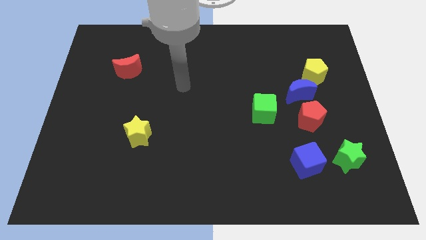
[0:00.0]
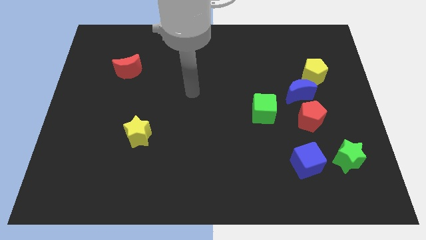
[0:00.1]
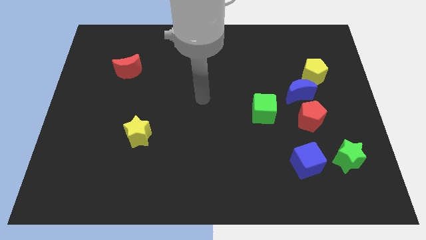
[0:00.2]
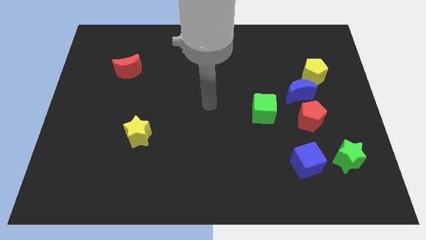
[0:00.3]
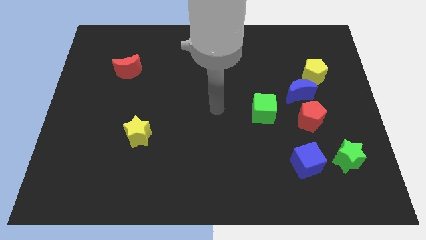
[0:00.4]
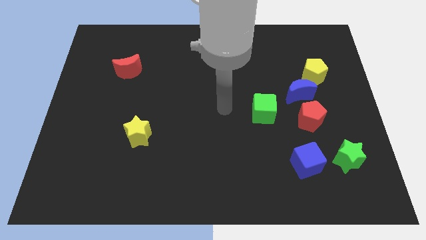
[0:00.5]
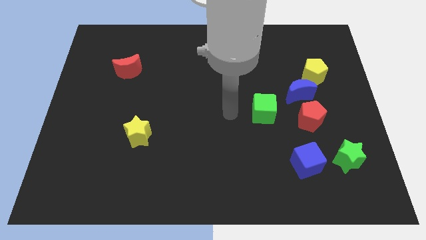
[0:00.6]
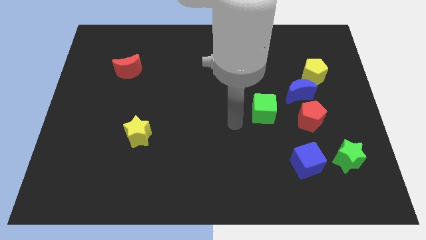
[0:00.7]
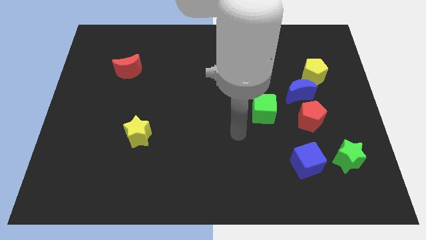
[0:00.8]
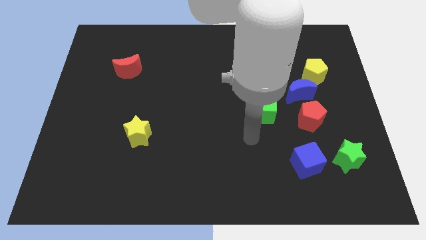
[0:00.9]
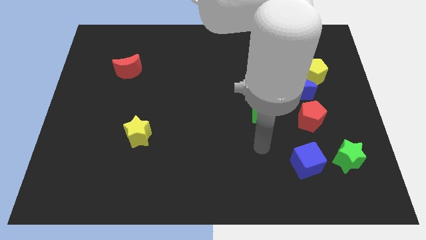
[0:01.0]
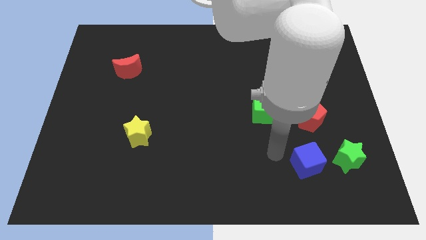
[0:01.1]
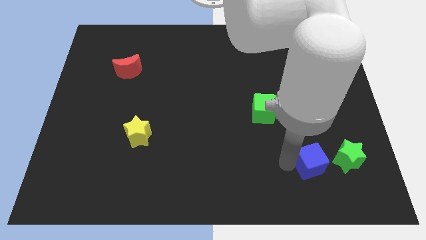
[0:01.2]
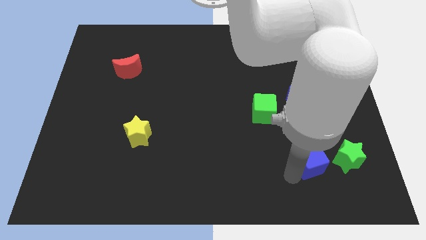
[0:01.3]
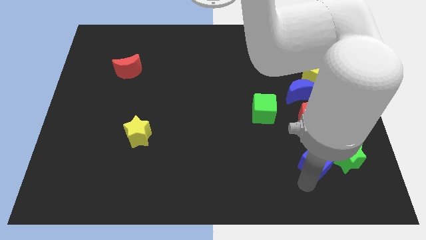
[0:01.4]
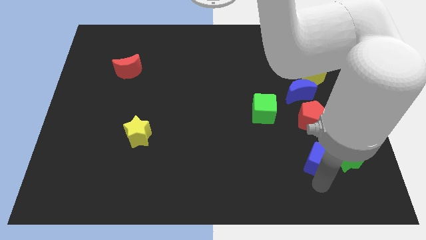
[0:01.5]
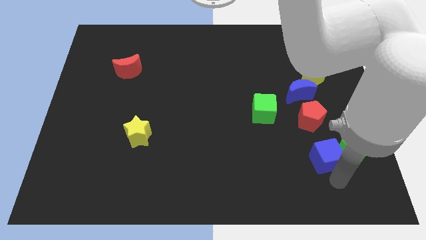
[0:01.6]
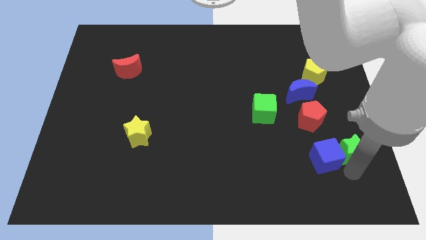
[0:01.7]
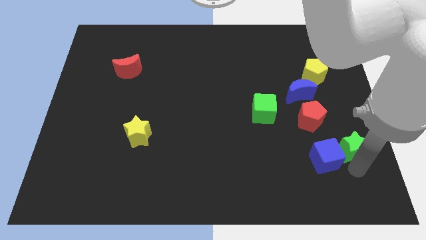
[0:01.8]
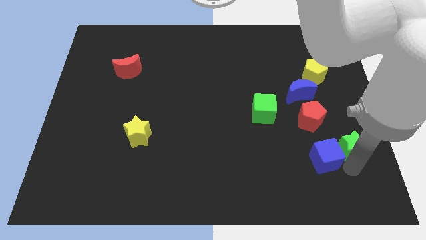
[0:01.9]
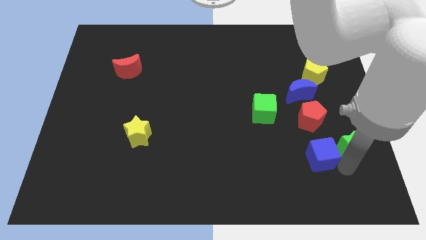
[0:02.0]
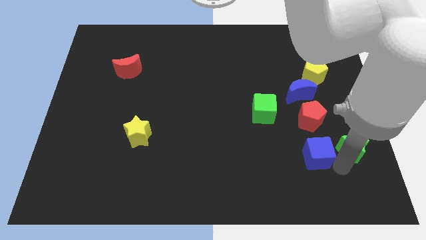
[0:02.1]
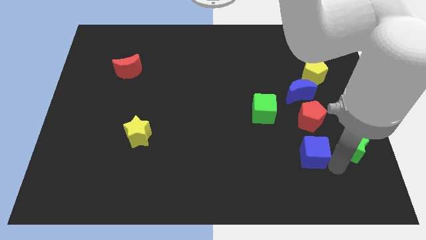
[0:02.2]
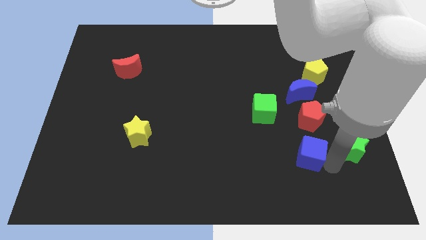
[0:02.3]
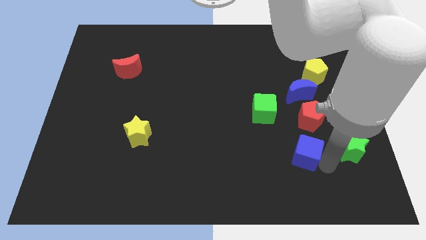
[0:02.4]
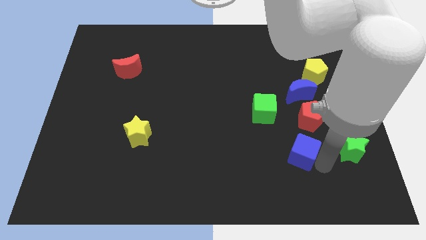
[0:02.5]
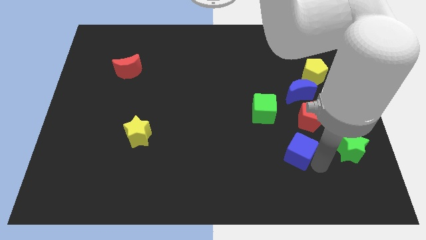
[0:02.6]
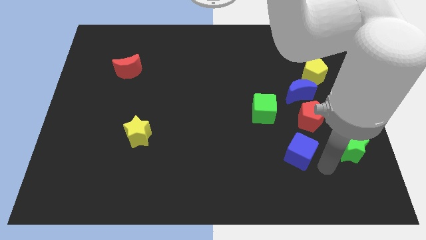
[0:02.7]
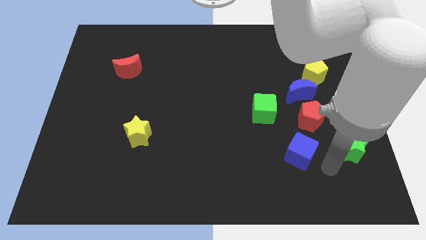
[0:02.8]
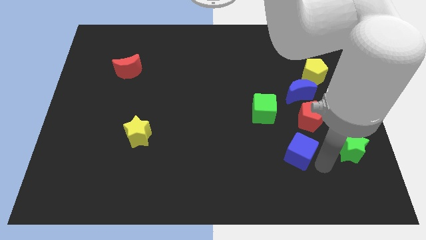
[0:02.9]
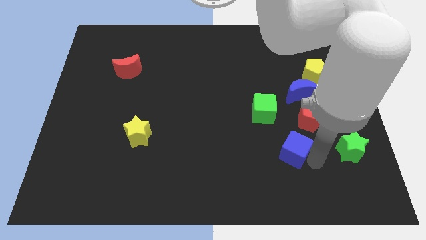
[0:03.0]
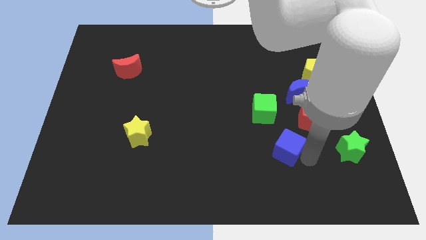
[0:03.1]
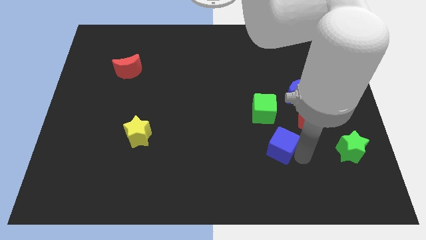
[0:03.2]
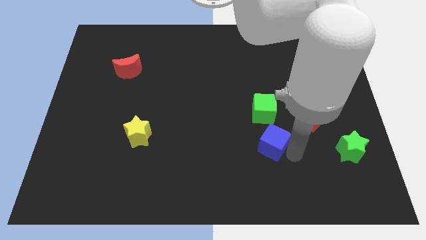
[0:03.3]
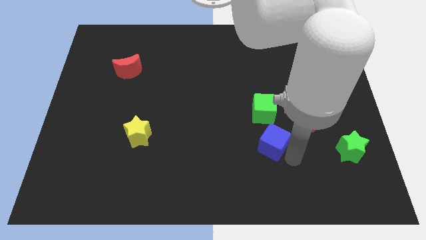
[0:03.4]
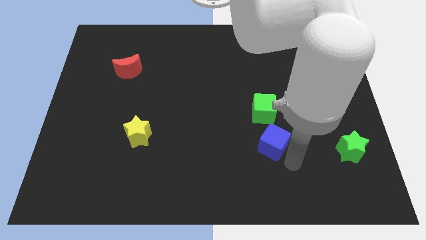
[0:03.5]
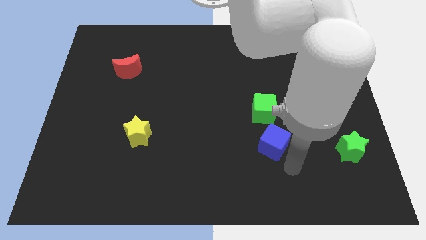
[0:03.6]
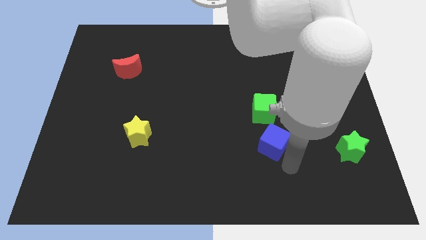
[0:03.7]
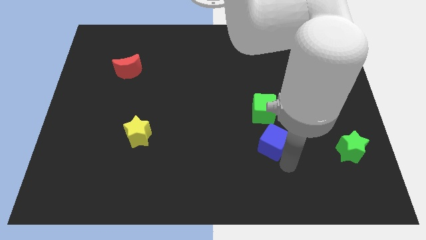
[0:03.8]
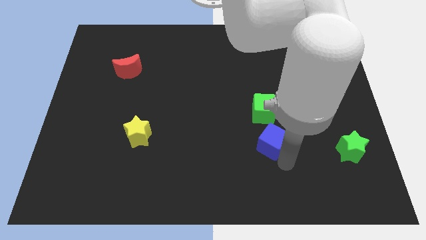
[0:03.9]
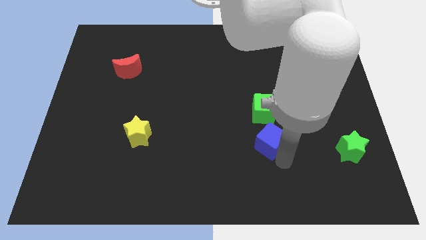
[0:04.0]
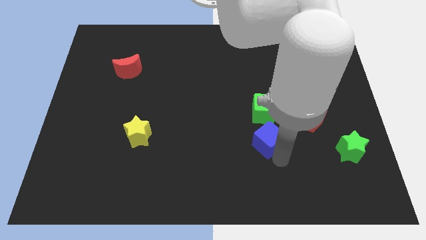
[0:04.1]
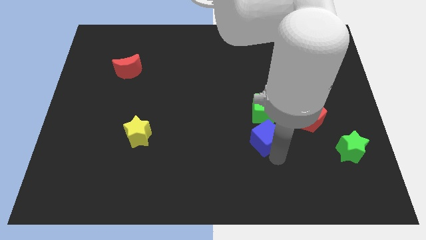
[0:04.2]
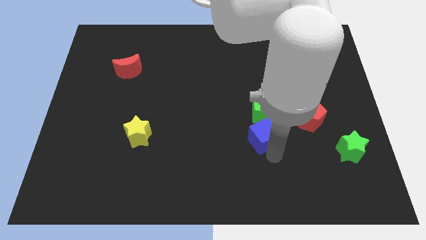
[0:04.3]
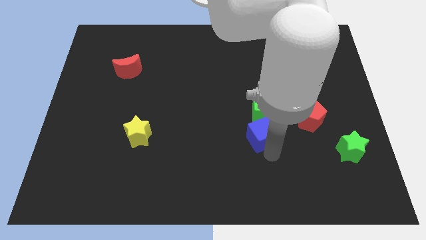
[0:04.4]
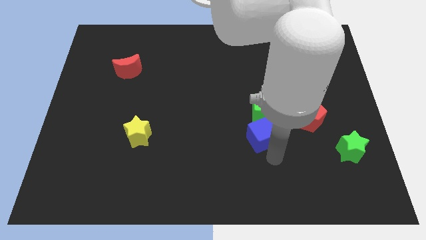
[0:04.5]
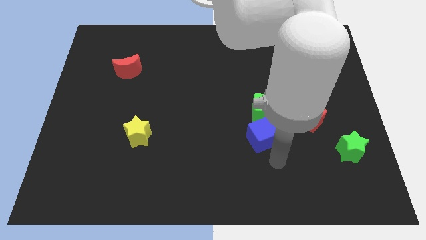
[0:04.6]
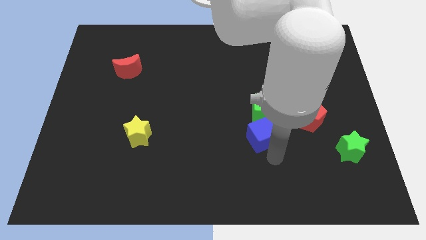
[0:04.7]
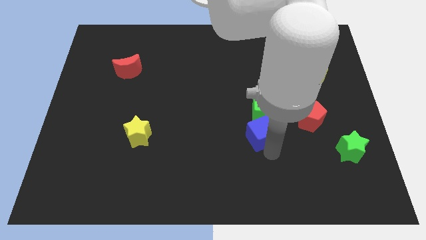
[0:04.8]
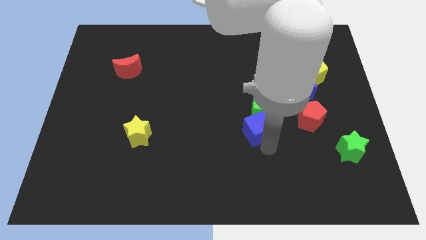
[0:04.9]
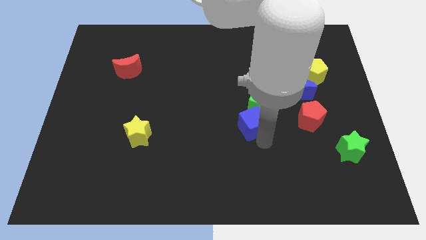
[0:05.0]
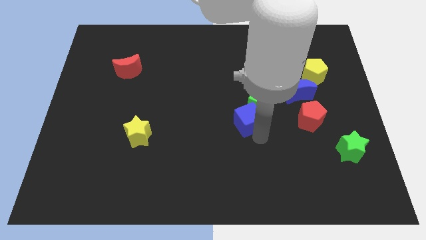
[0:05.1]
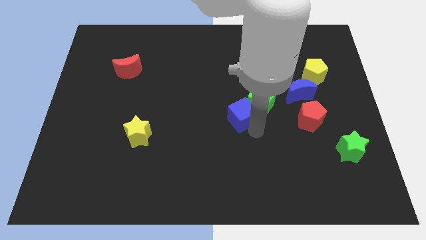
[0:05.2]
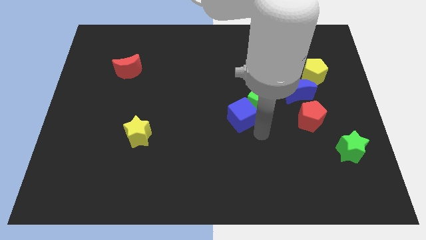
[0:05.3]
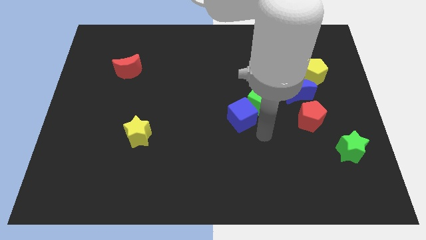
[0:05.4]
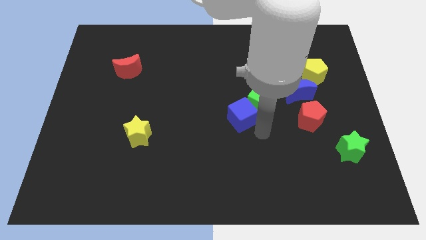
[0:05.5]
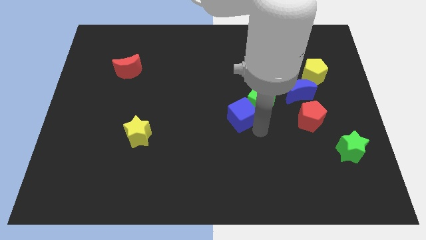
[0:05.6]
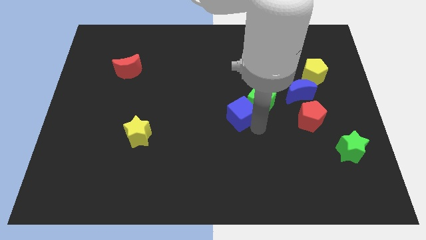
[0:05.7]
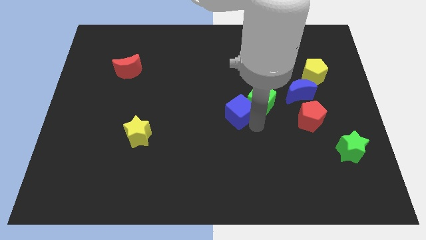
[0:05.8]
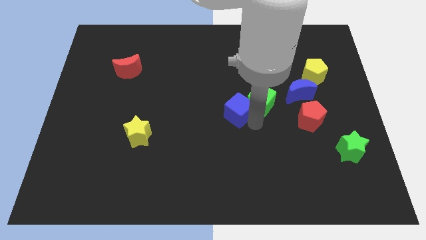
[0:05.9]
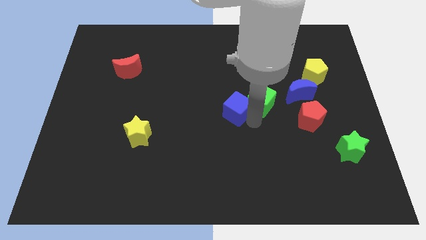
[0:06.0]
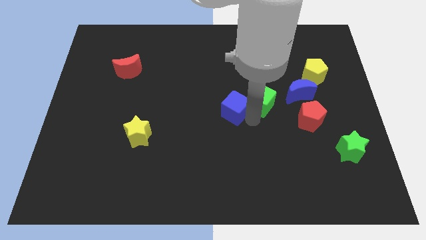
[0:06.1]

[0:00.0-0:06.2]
slide the blue cube diagonally upwards and to the left

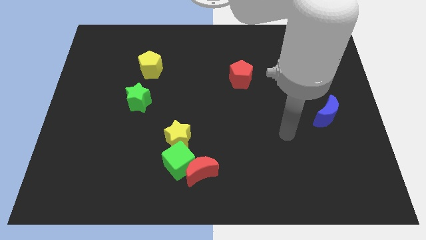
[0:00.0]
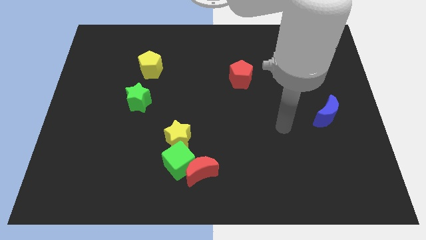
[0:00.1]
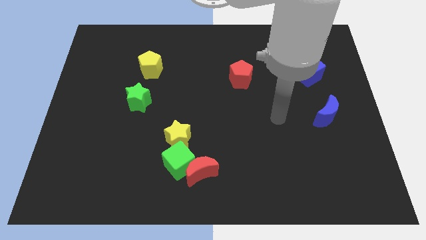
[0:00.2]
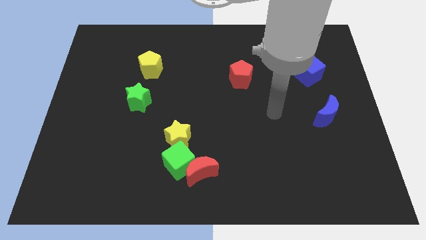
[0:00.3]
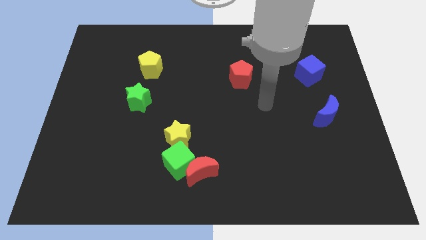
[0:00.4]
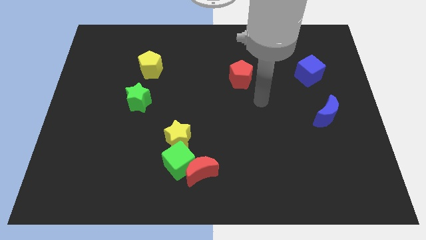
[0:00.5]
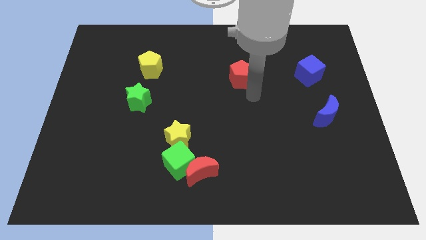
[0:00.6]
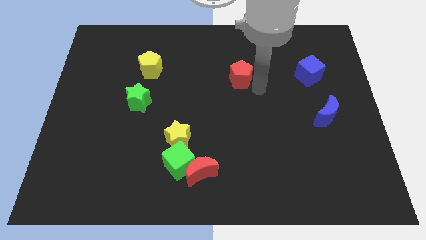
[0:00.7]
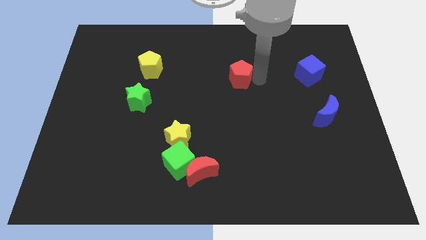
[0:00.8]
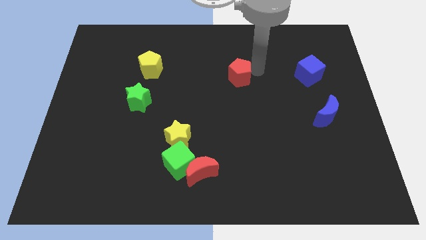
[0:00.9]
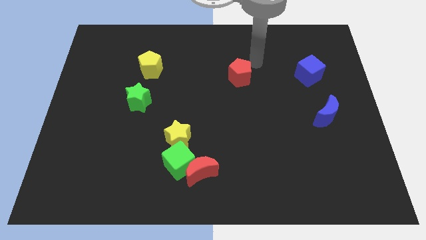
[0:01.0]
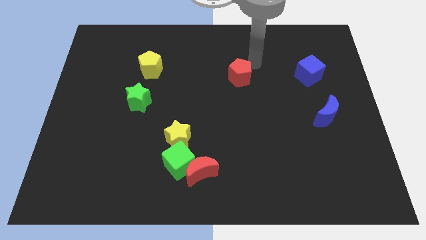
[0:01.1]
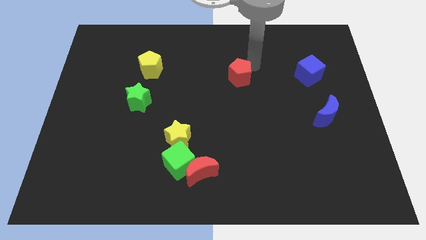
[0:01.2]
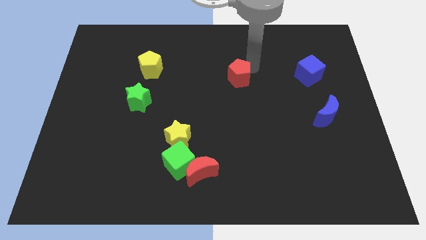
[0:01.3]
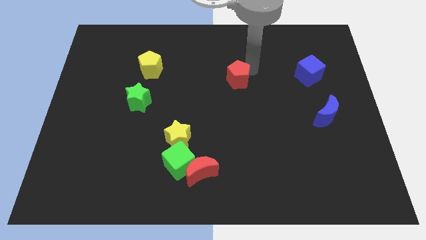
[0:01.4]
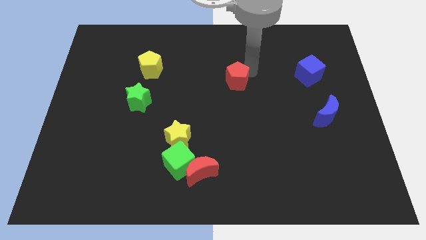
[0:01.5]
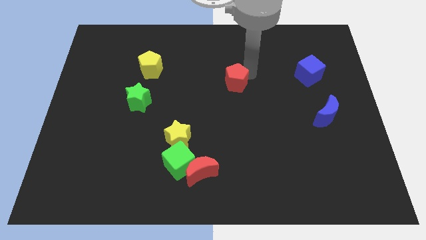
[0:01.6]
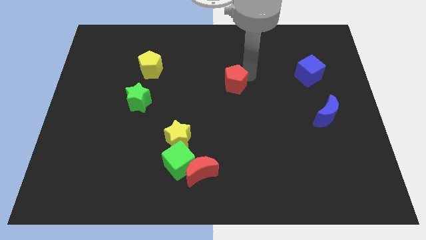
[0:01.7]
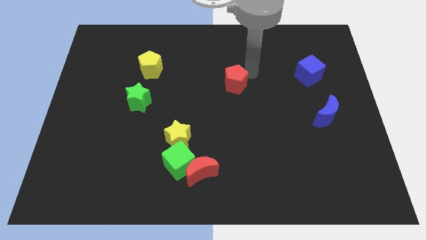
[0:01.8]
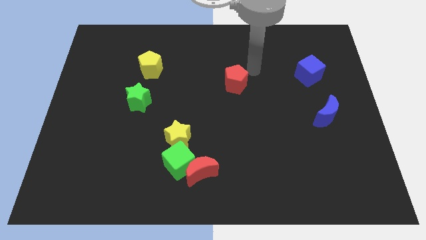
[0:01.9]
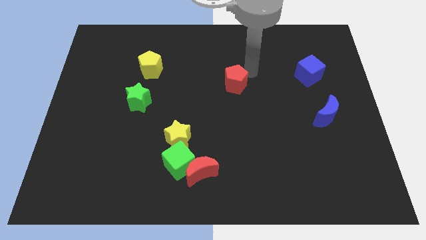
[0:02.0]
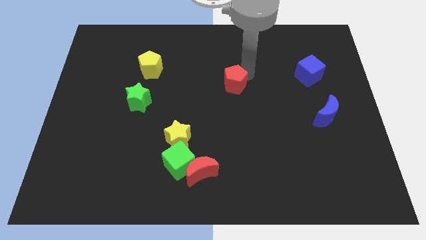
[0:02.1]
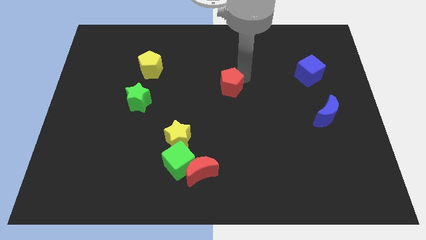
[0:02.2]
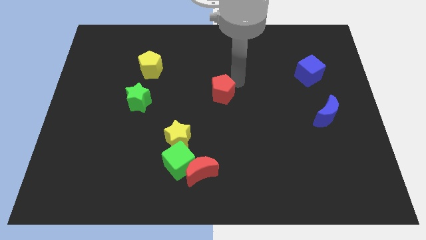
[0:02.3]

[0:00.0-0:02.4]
move the red pentagon down and then to the left a bit
